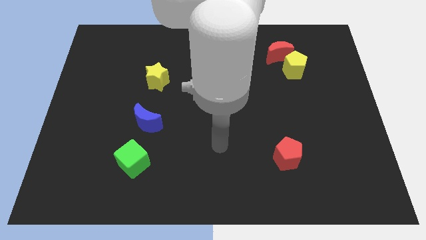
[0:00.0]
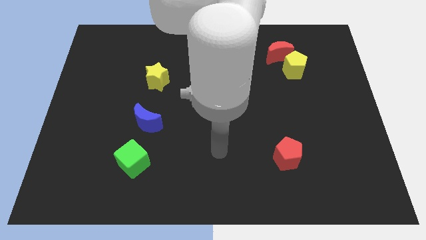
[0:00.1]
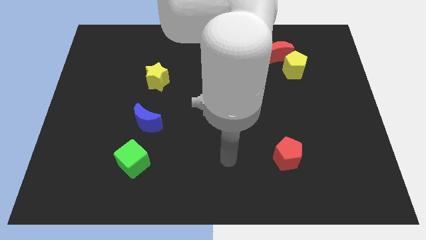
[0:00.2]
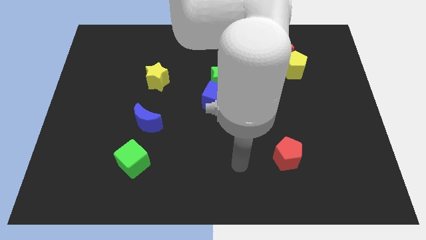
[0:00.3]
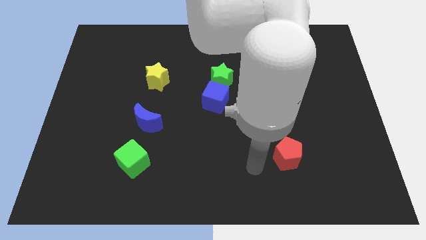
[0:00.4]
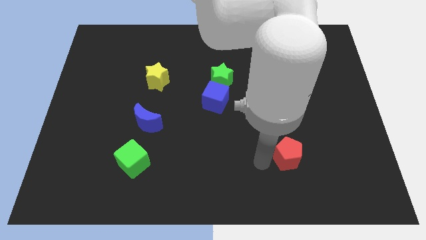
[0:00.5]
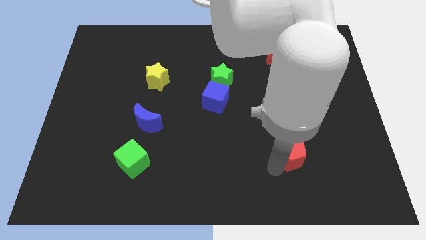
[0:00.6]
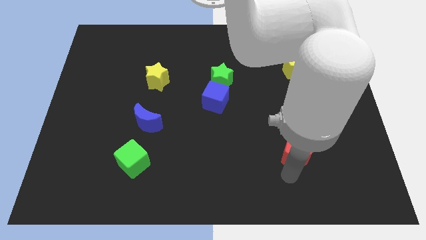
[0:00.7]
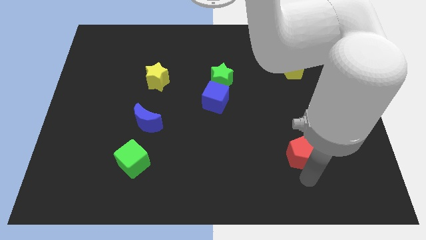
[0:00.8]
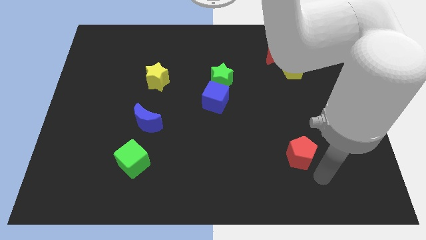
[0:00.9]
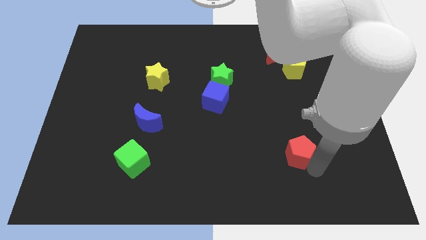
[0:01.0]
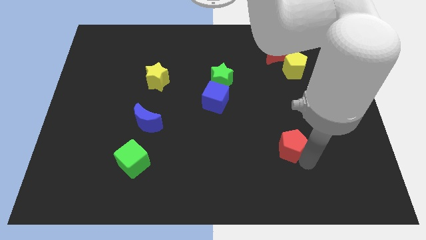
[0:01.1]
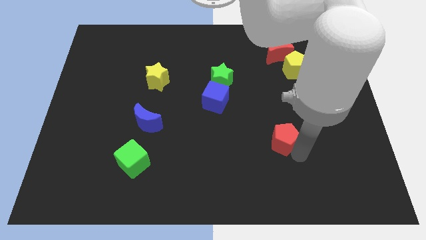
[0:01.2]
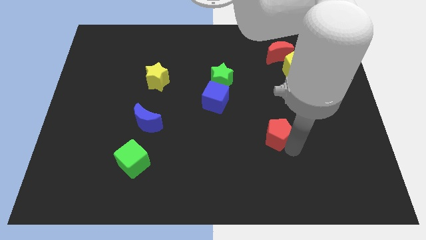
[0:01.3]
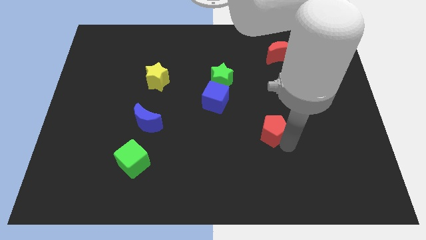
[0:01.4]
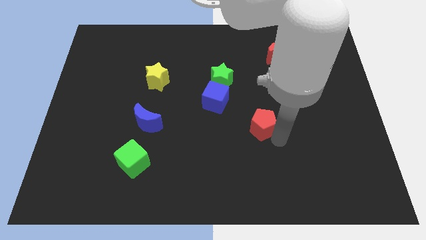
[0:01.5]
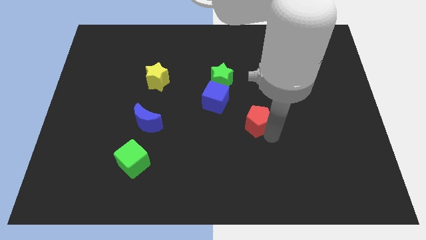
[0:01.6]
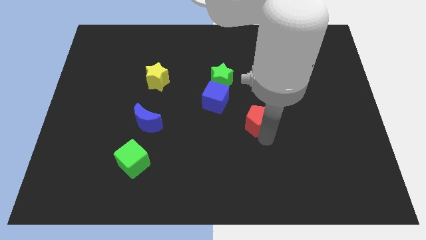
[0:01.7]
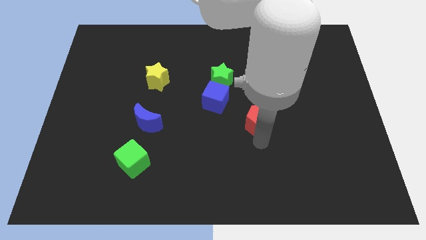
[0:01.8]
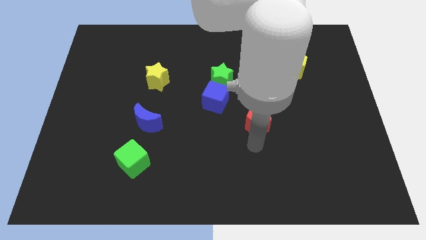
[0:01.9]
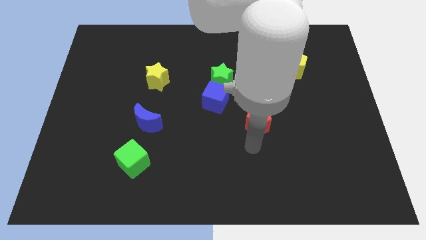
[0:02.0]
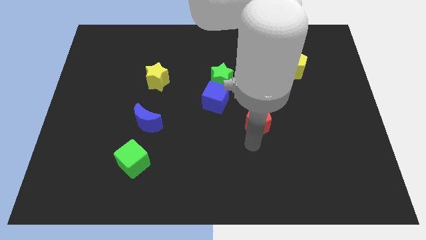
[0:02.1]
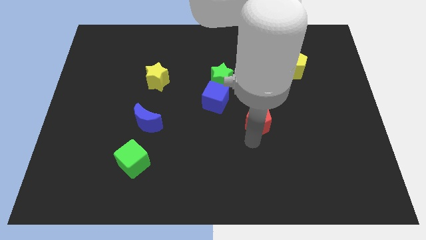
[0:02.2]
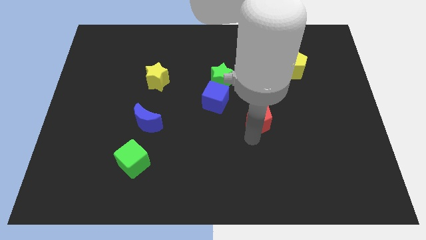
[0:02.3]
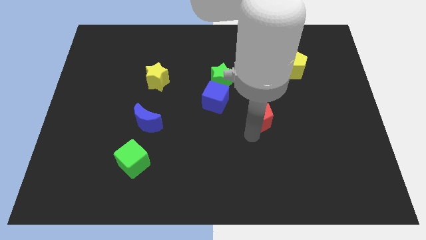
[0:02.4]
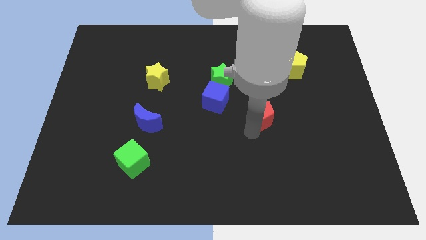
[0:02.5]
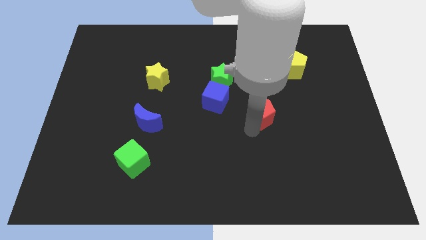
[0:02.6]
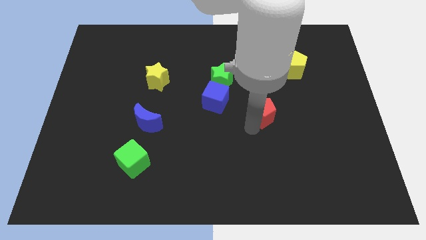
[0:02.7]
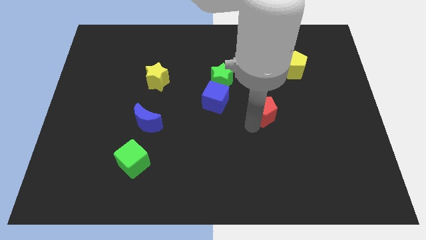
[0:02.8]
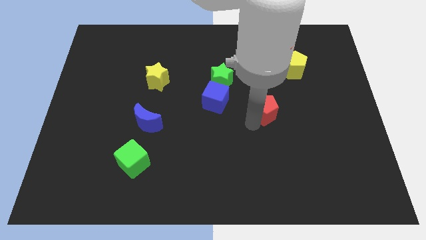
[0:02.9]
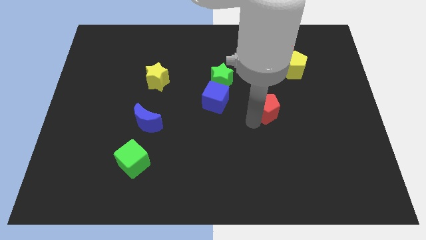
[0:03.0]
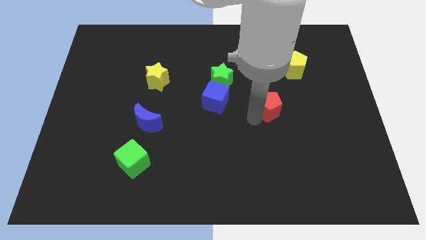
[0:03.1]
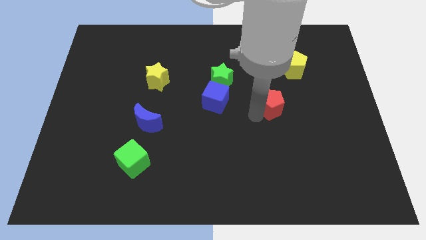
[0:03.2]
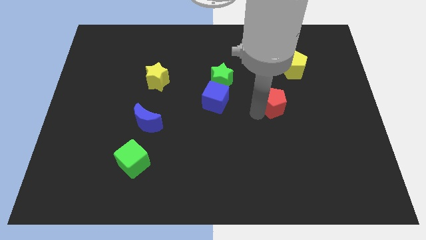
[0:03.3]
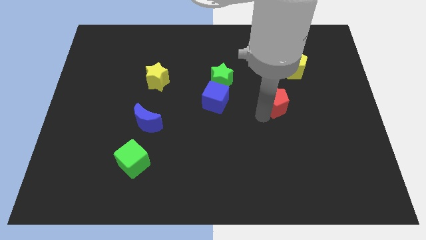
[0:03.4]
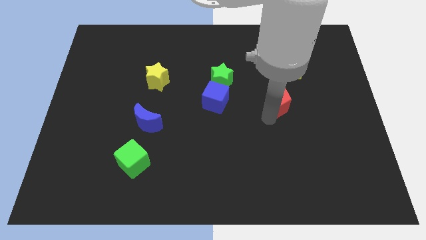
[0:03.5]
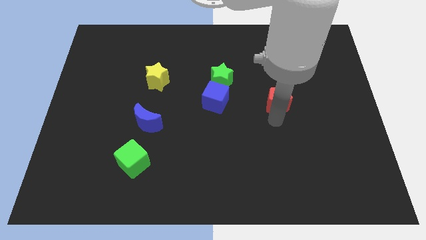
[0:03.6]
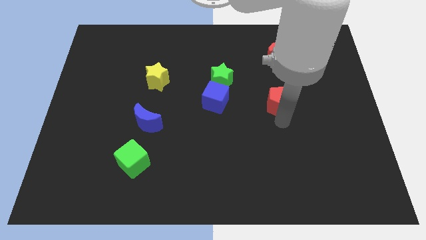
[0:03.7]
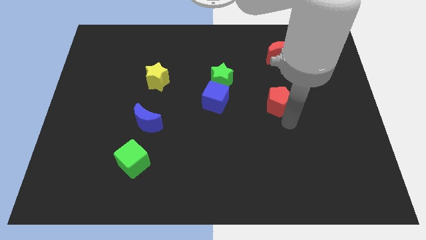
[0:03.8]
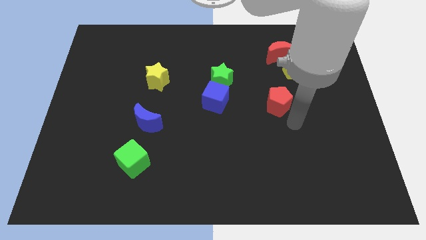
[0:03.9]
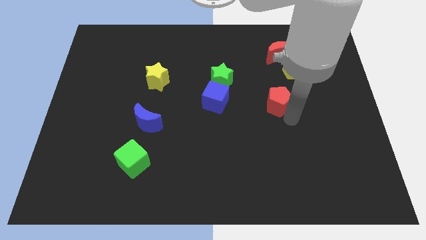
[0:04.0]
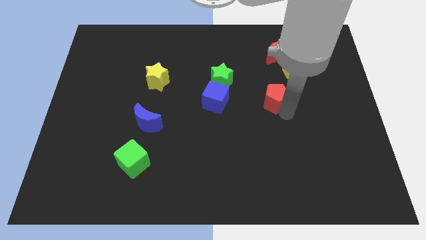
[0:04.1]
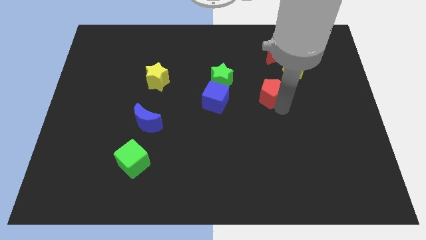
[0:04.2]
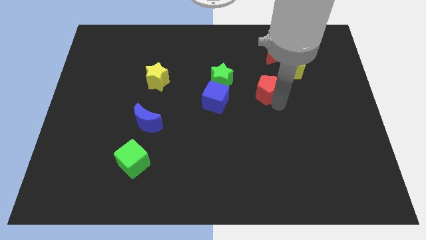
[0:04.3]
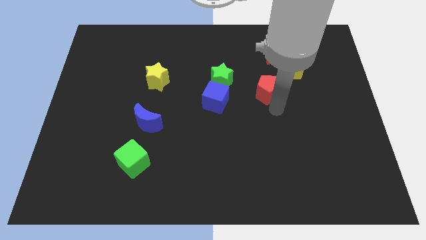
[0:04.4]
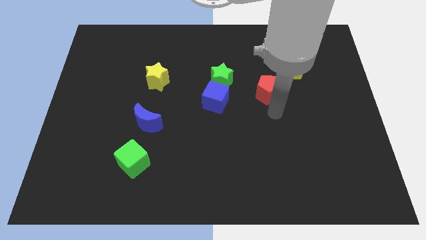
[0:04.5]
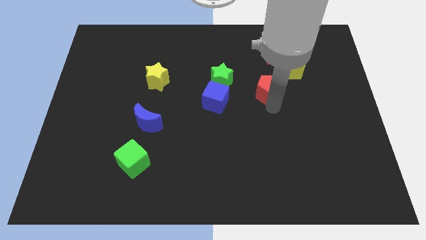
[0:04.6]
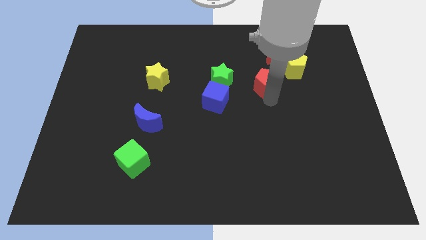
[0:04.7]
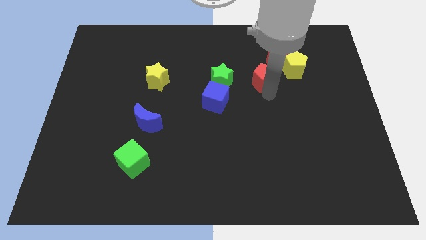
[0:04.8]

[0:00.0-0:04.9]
move the red pentagon to the bottom left side of the red moon

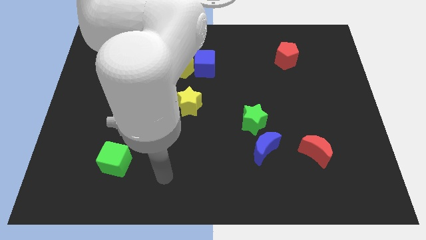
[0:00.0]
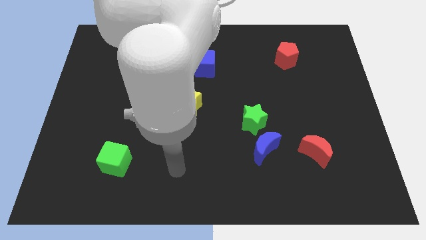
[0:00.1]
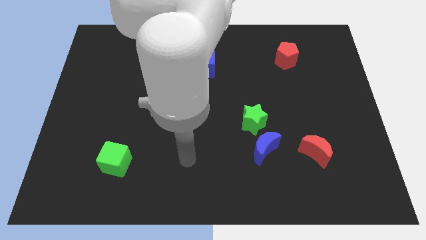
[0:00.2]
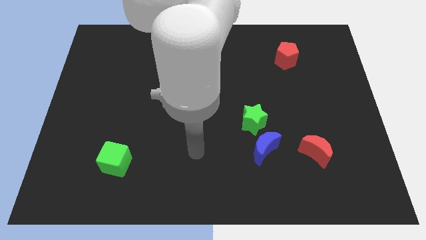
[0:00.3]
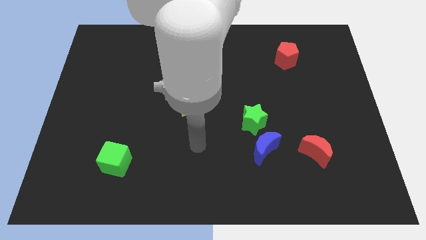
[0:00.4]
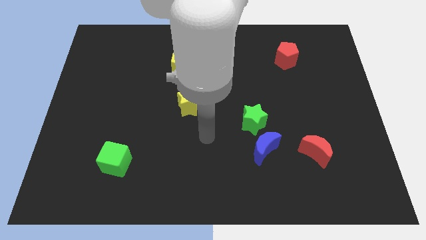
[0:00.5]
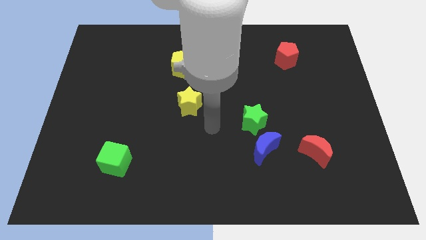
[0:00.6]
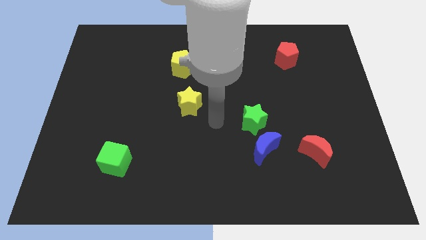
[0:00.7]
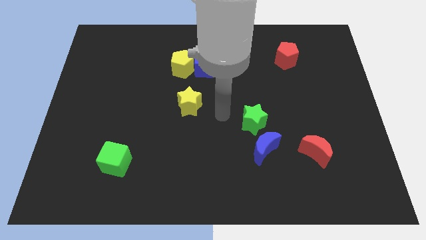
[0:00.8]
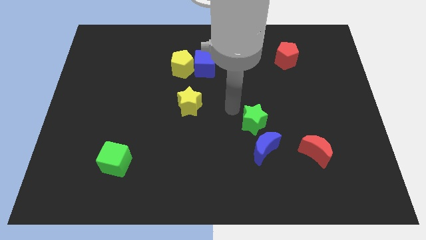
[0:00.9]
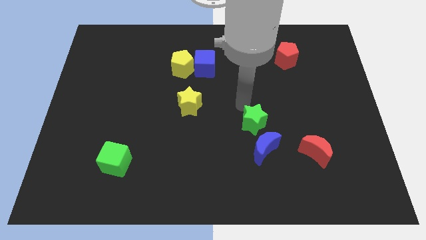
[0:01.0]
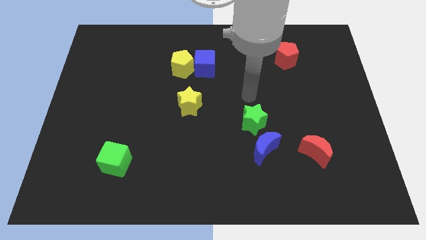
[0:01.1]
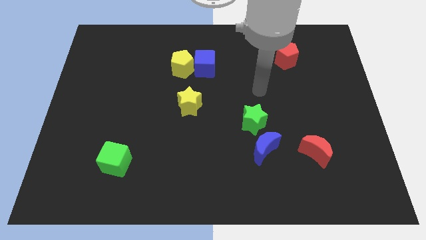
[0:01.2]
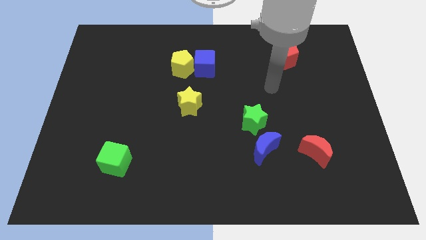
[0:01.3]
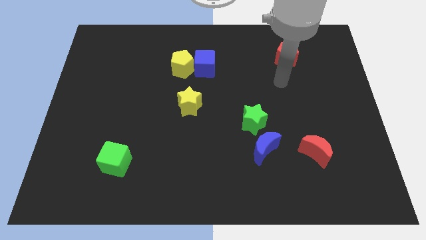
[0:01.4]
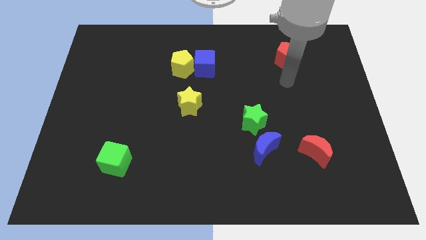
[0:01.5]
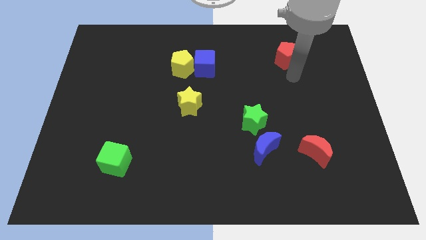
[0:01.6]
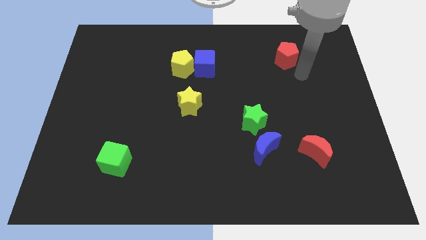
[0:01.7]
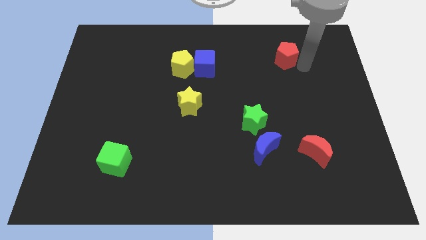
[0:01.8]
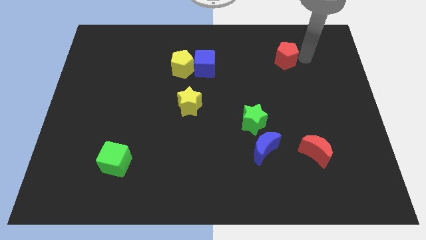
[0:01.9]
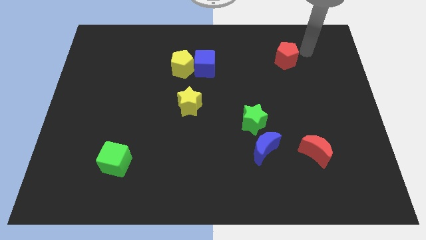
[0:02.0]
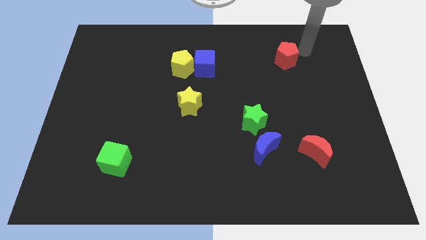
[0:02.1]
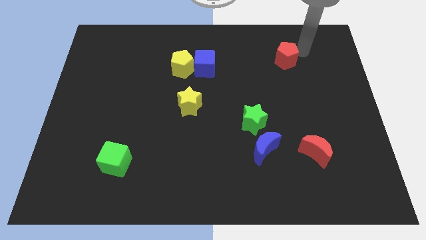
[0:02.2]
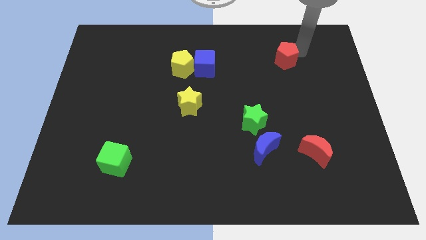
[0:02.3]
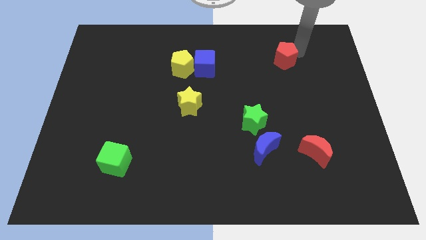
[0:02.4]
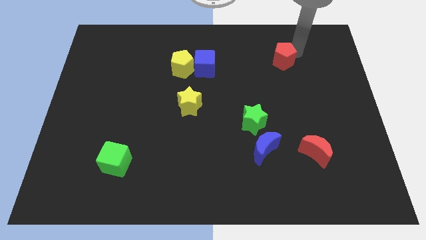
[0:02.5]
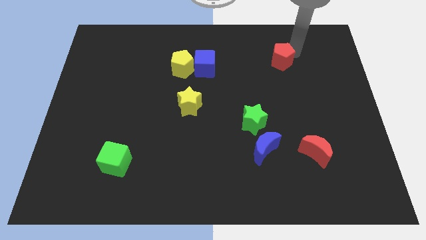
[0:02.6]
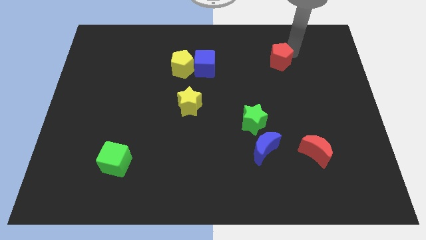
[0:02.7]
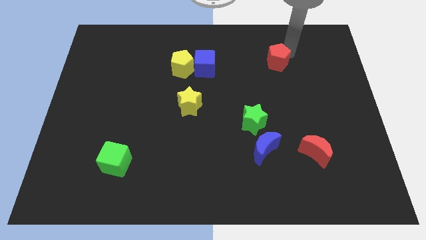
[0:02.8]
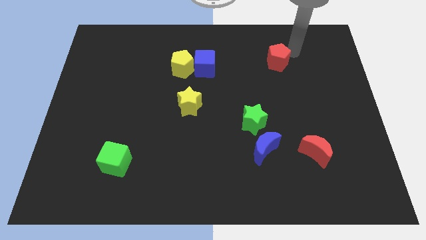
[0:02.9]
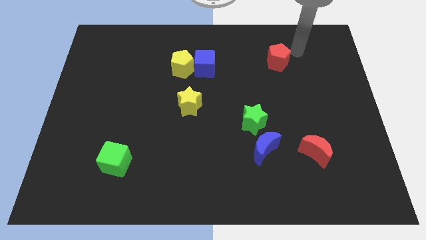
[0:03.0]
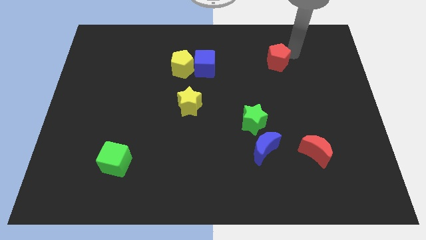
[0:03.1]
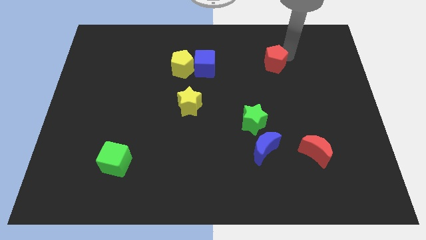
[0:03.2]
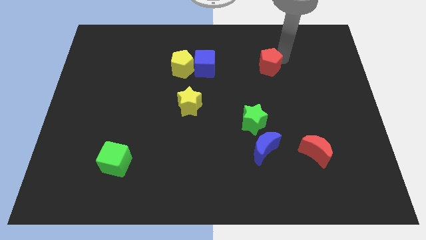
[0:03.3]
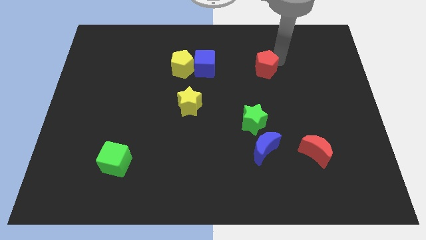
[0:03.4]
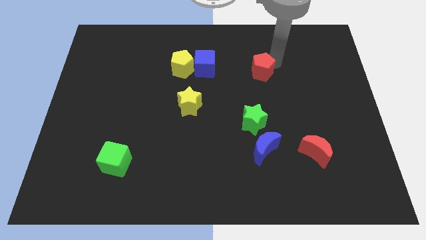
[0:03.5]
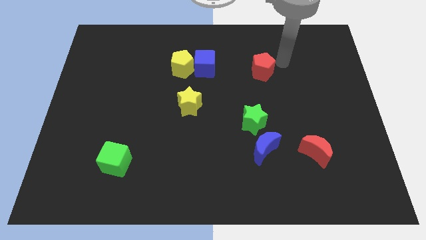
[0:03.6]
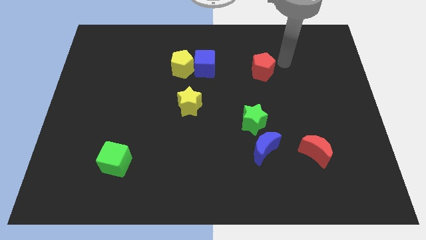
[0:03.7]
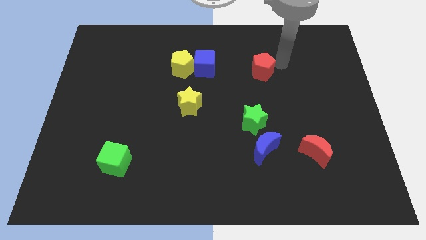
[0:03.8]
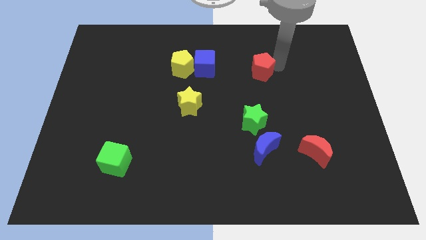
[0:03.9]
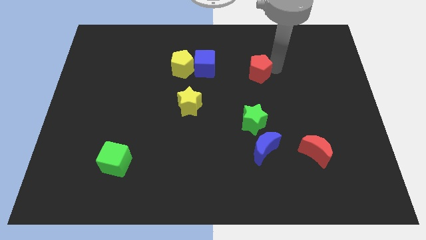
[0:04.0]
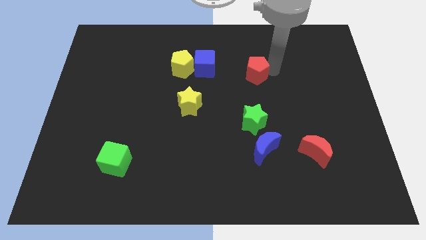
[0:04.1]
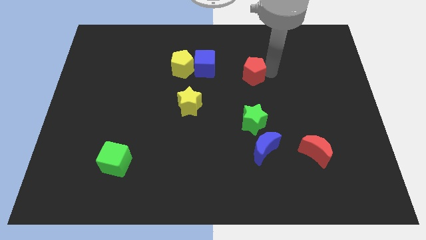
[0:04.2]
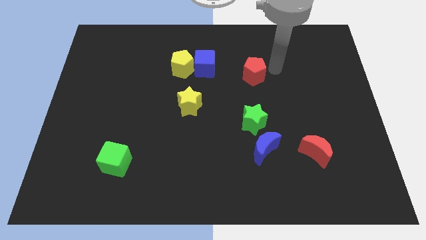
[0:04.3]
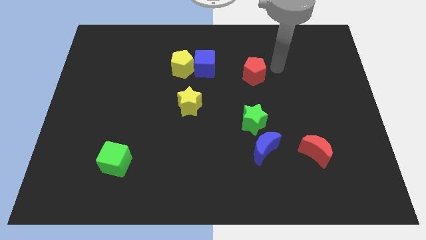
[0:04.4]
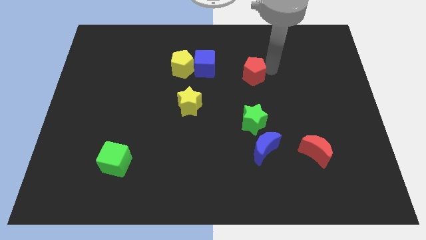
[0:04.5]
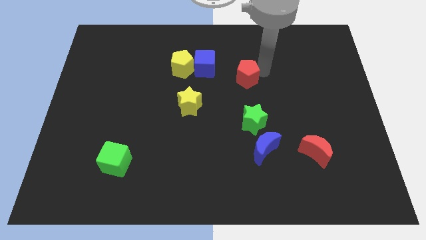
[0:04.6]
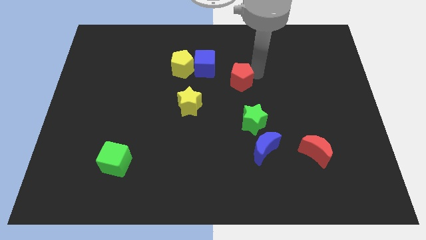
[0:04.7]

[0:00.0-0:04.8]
push the red pentagon diagonally down and to the right of the blue cube
